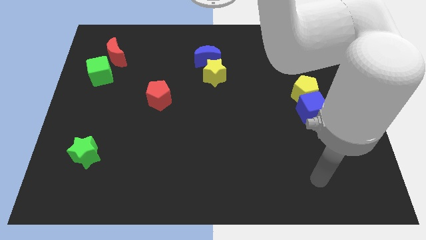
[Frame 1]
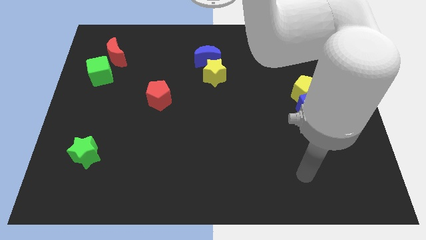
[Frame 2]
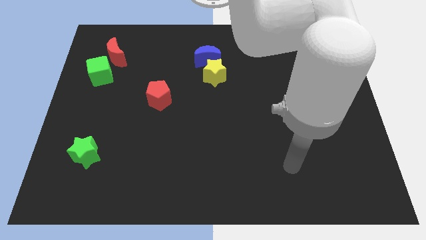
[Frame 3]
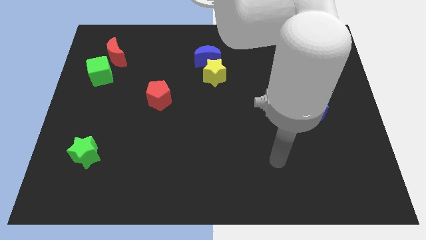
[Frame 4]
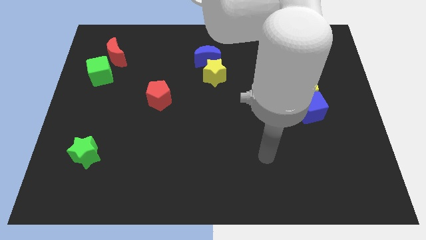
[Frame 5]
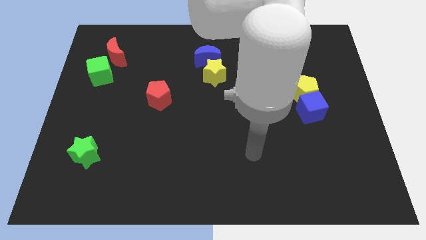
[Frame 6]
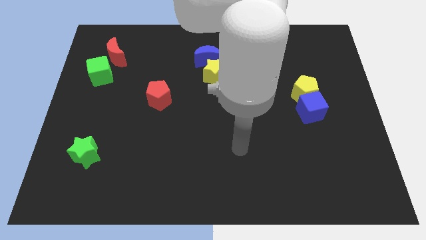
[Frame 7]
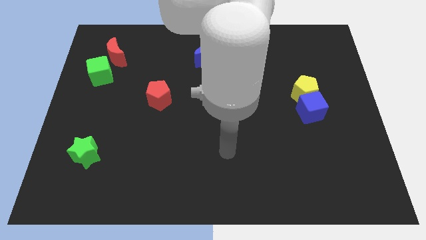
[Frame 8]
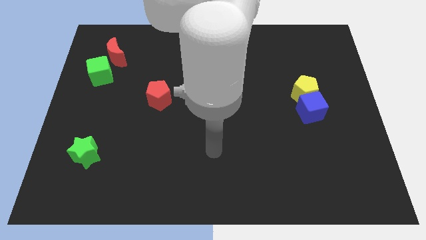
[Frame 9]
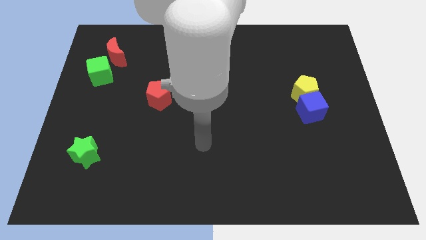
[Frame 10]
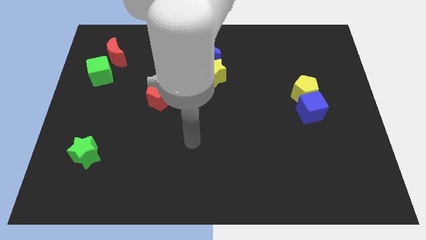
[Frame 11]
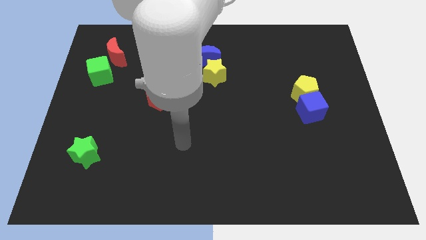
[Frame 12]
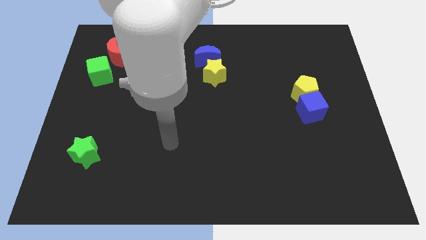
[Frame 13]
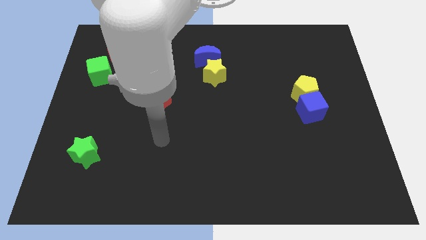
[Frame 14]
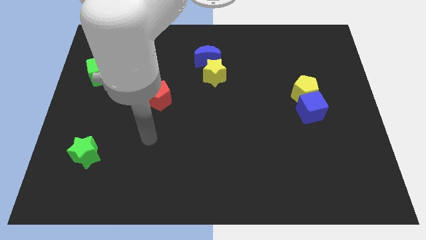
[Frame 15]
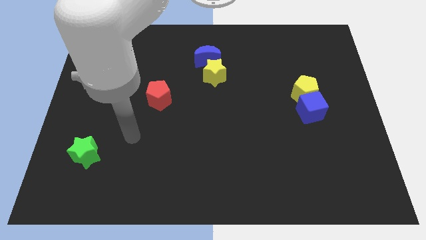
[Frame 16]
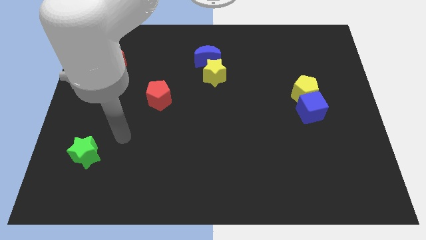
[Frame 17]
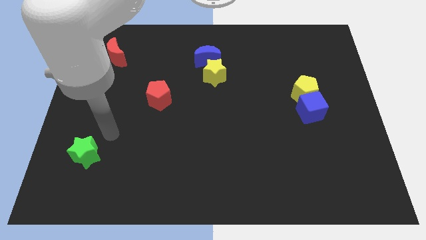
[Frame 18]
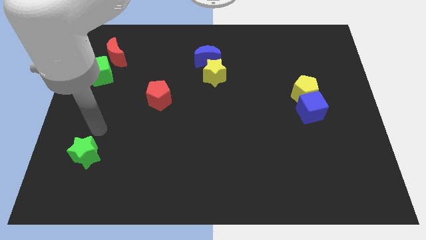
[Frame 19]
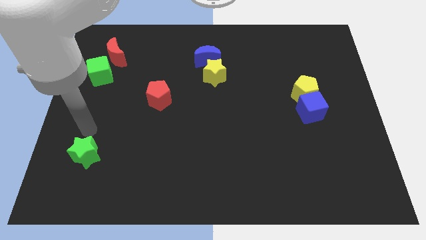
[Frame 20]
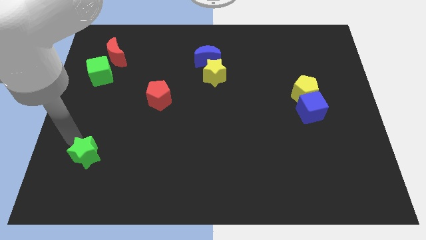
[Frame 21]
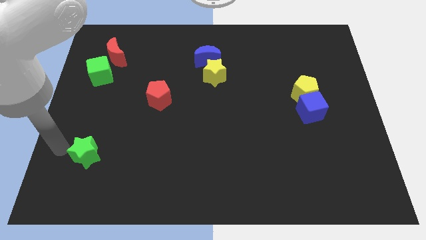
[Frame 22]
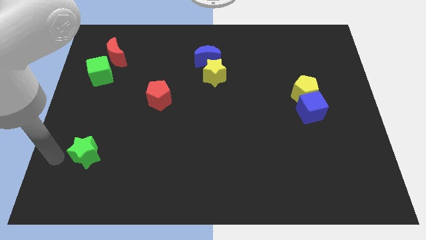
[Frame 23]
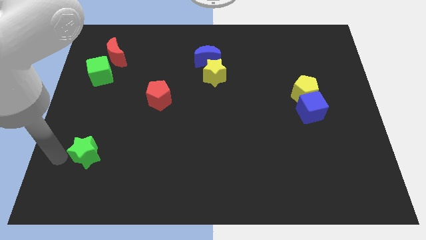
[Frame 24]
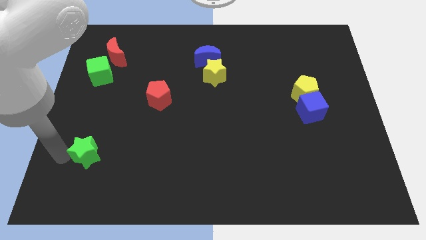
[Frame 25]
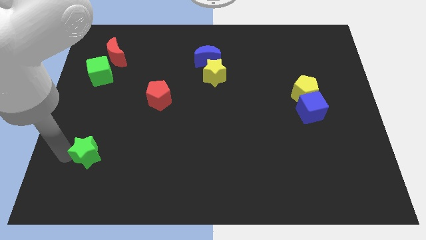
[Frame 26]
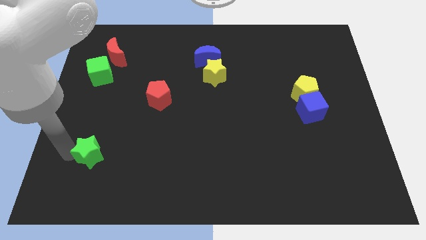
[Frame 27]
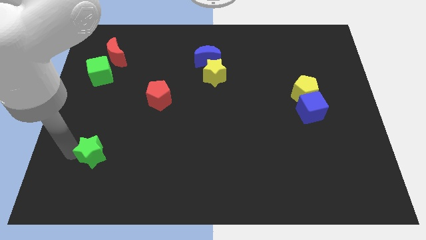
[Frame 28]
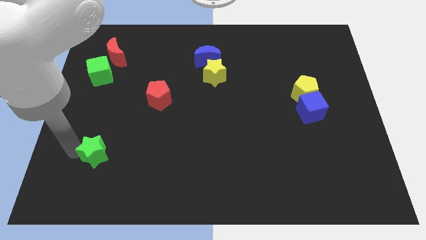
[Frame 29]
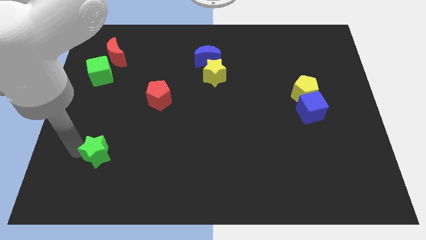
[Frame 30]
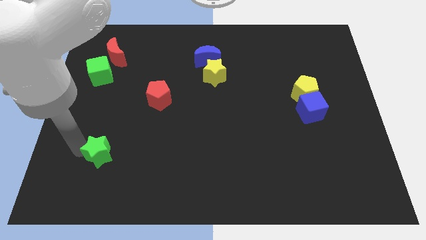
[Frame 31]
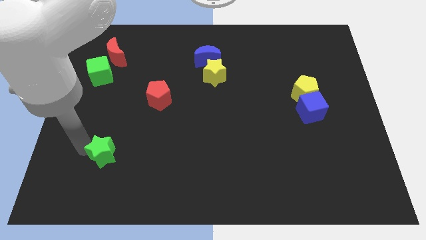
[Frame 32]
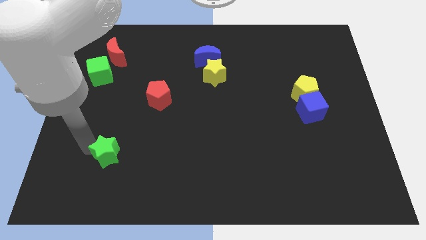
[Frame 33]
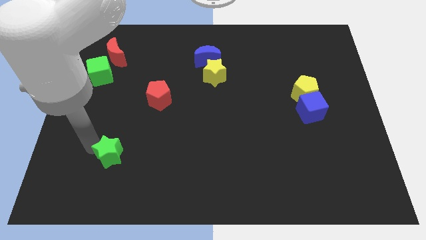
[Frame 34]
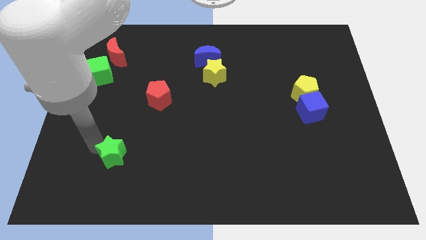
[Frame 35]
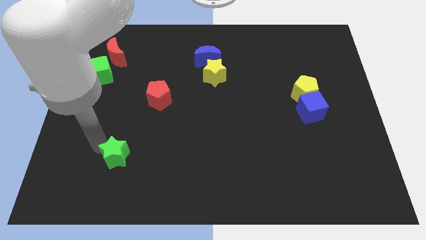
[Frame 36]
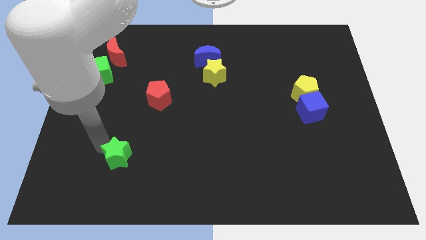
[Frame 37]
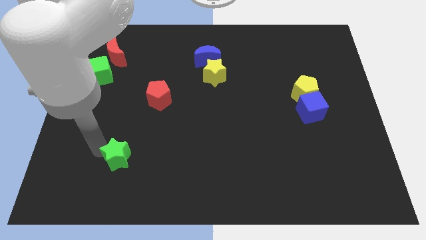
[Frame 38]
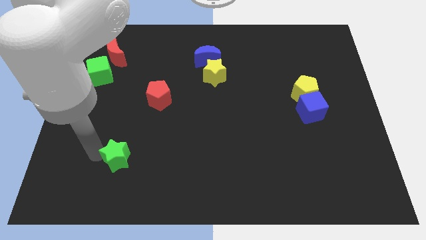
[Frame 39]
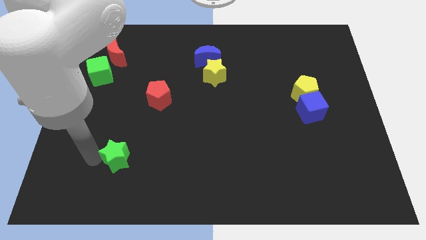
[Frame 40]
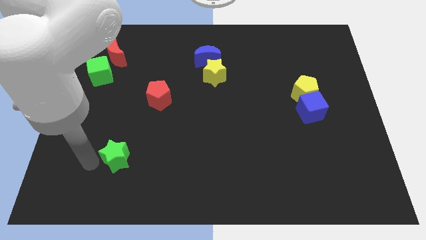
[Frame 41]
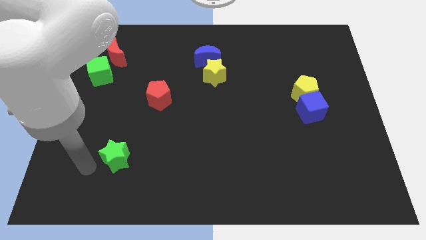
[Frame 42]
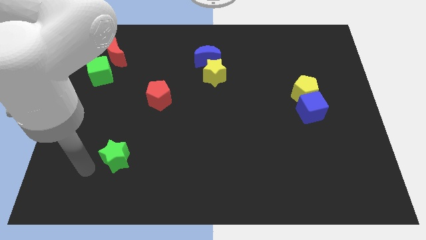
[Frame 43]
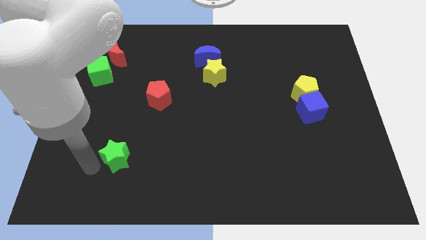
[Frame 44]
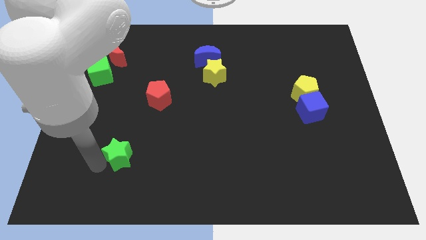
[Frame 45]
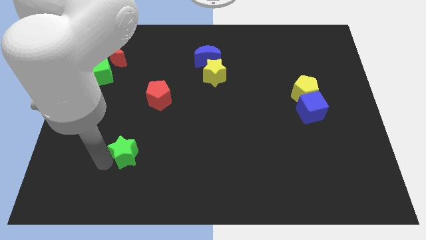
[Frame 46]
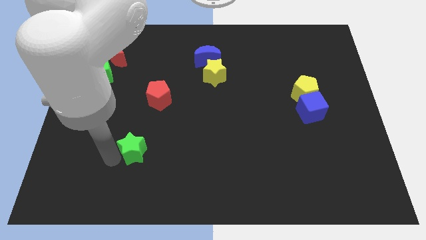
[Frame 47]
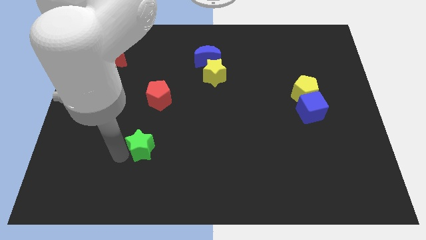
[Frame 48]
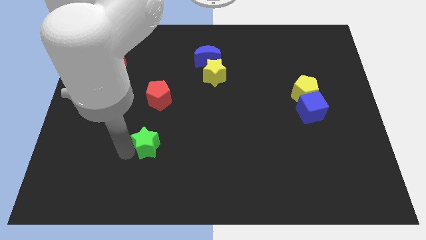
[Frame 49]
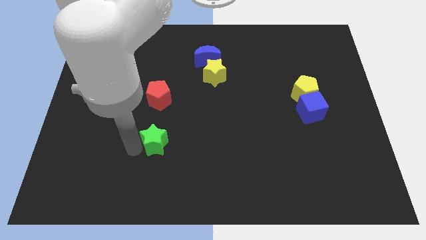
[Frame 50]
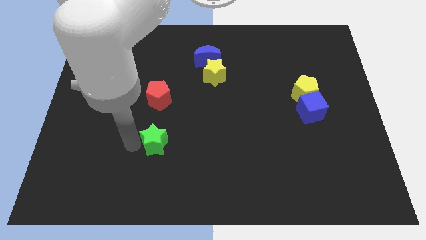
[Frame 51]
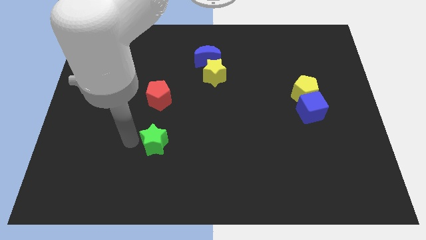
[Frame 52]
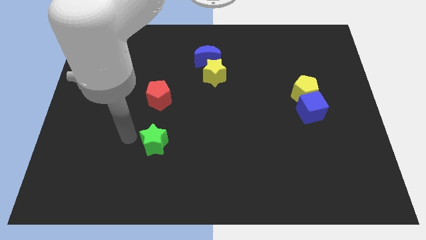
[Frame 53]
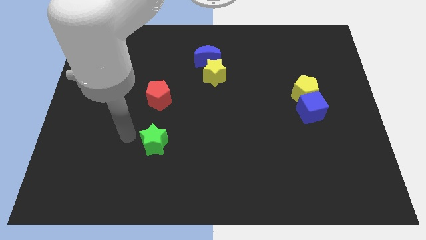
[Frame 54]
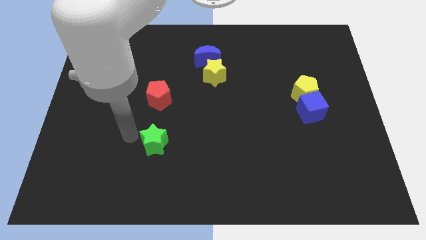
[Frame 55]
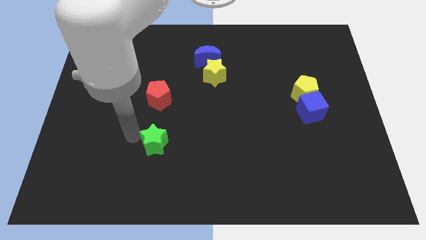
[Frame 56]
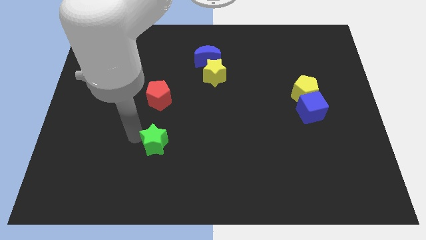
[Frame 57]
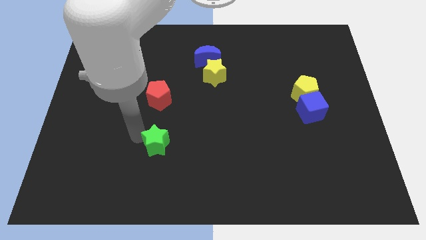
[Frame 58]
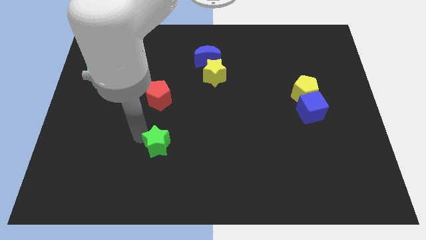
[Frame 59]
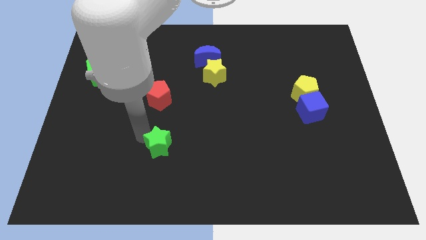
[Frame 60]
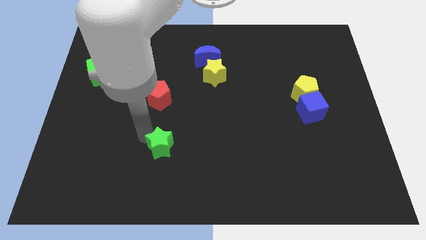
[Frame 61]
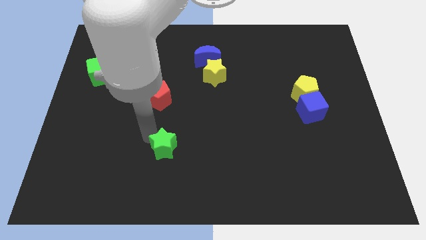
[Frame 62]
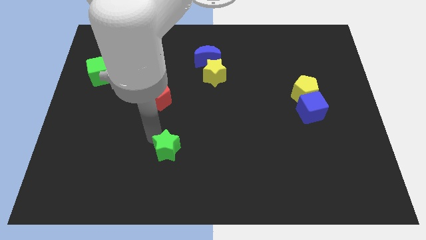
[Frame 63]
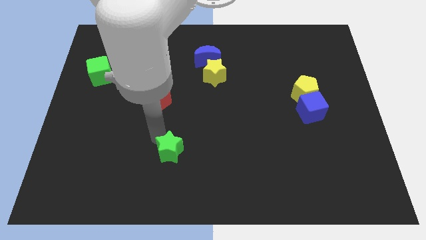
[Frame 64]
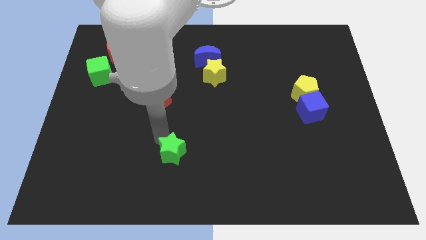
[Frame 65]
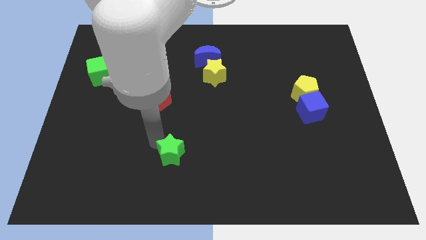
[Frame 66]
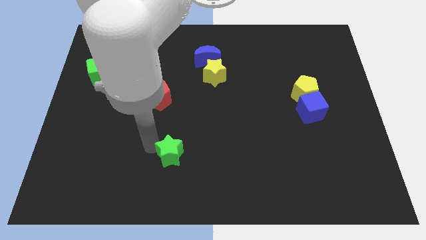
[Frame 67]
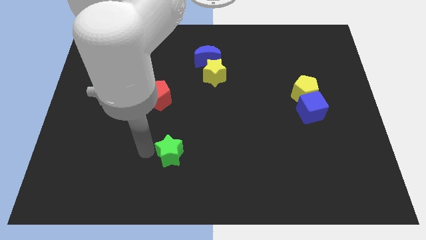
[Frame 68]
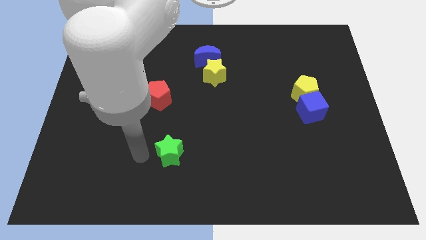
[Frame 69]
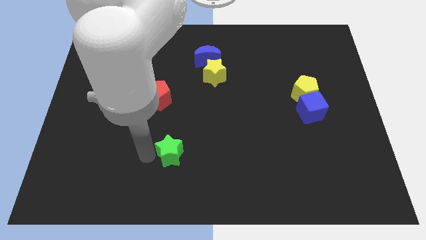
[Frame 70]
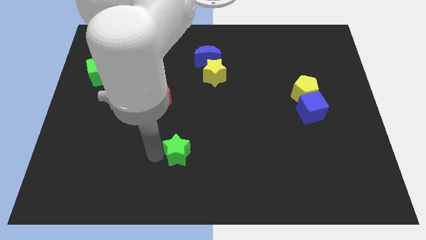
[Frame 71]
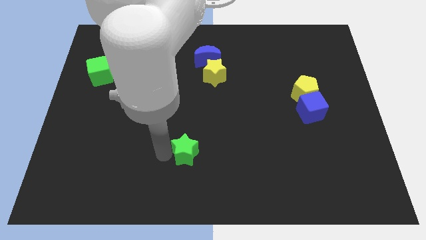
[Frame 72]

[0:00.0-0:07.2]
move the green star right

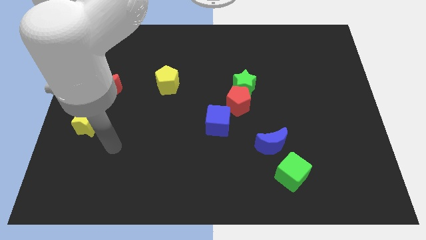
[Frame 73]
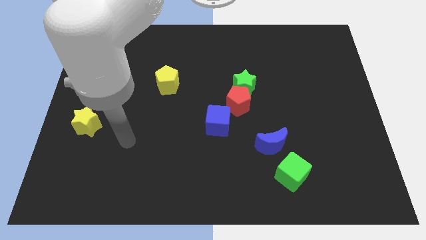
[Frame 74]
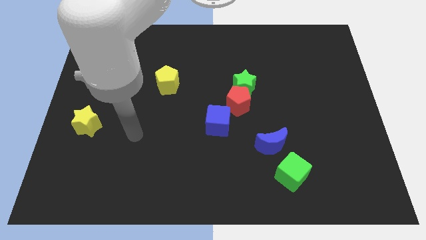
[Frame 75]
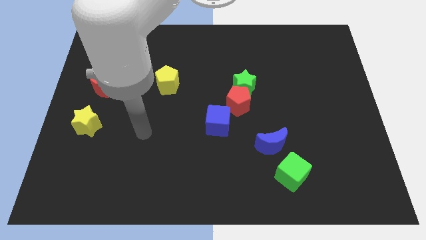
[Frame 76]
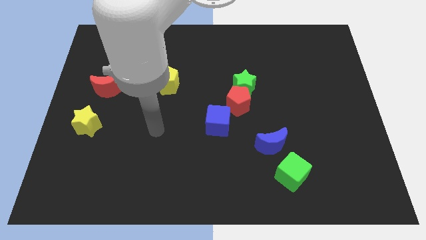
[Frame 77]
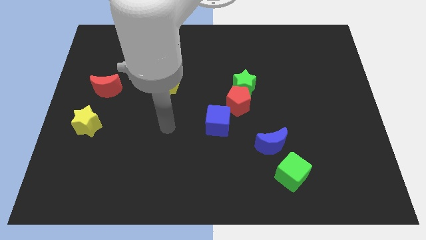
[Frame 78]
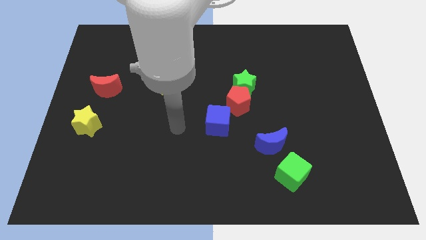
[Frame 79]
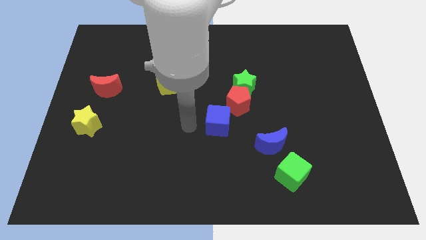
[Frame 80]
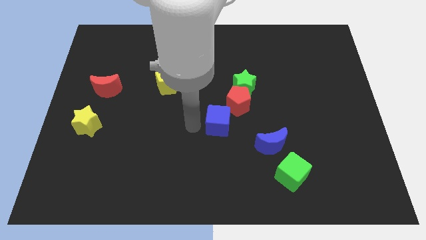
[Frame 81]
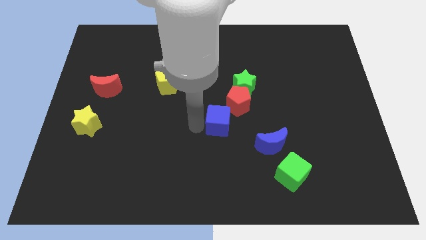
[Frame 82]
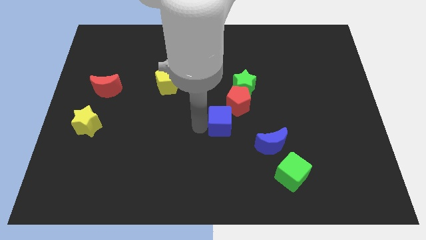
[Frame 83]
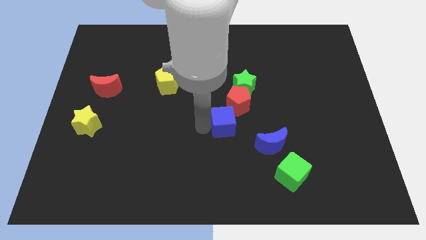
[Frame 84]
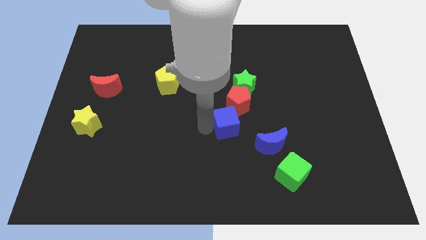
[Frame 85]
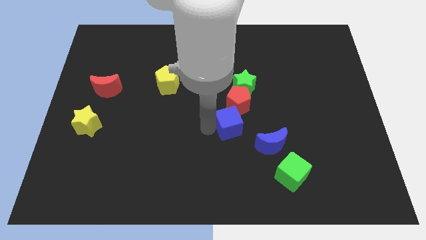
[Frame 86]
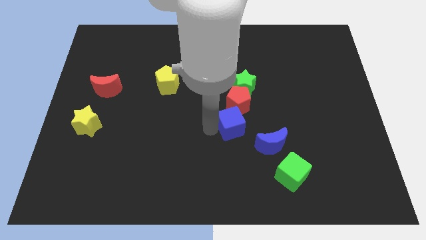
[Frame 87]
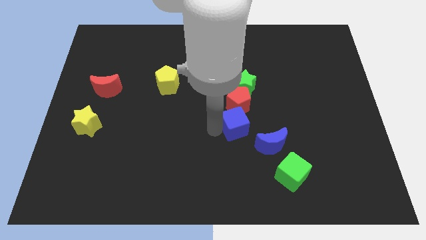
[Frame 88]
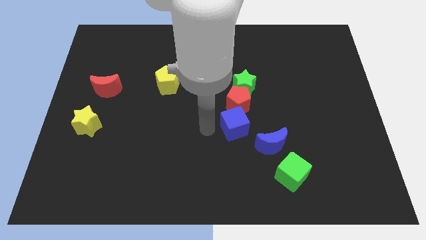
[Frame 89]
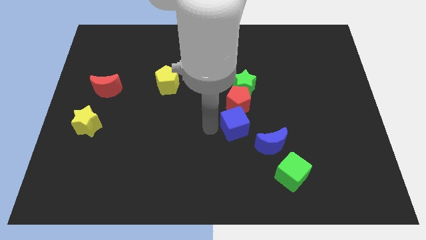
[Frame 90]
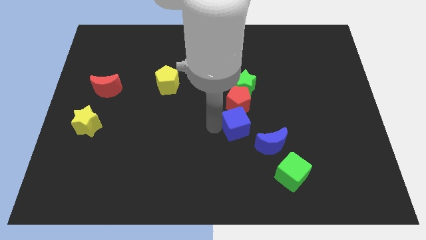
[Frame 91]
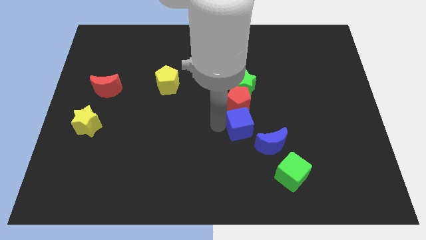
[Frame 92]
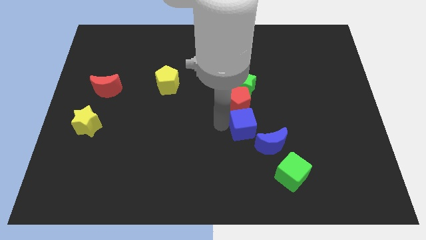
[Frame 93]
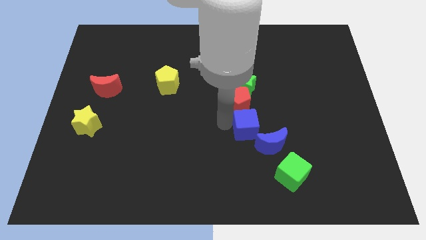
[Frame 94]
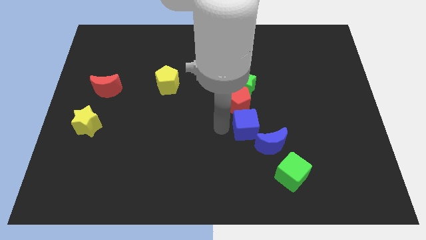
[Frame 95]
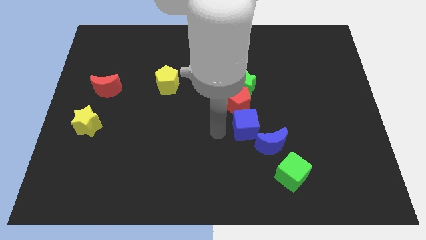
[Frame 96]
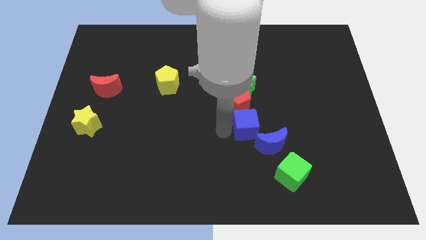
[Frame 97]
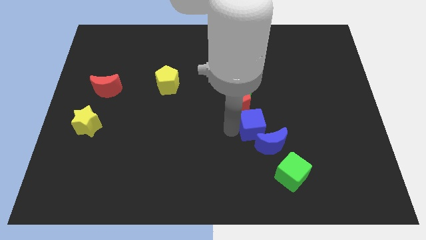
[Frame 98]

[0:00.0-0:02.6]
slide the blue cube slightly to the right
